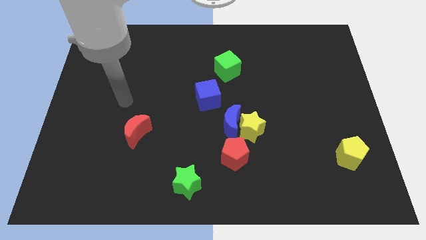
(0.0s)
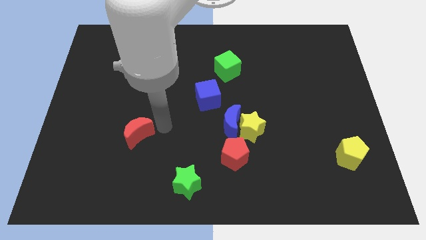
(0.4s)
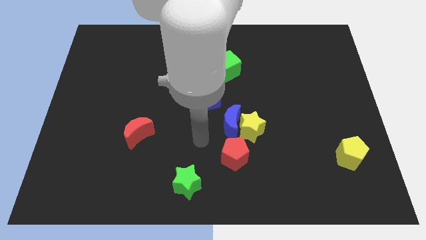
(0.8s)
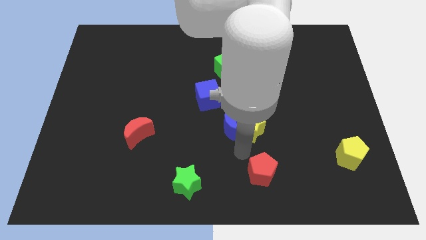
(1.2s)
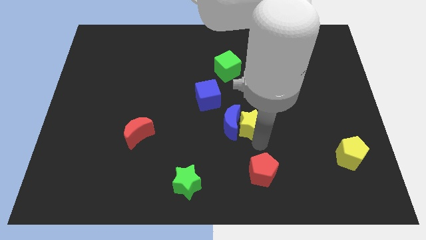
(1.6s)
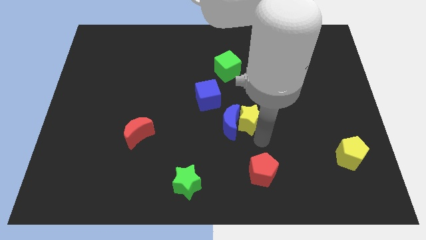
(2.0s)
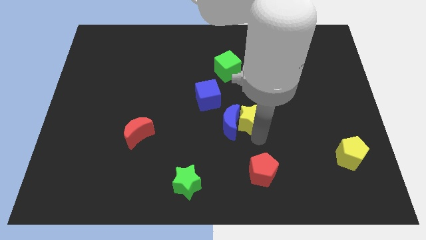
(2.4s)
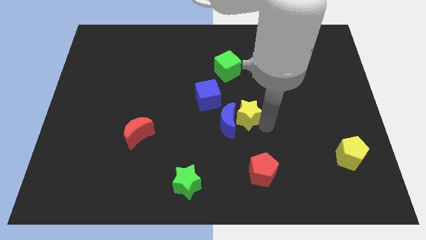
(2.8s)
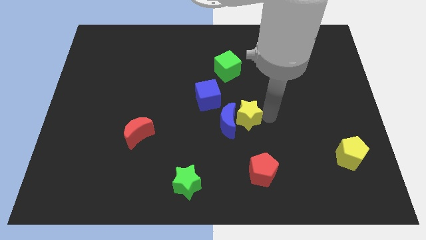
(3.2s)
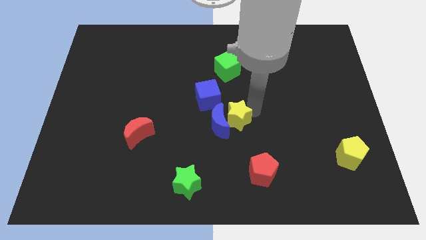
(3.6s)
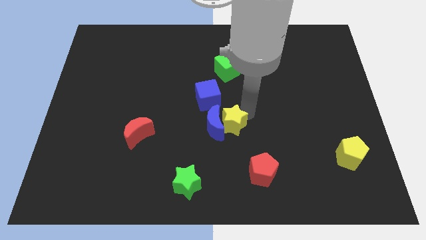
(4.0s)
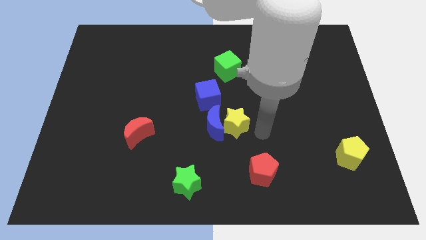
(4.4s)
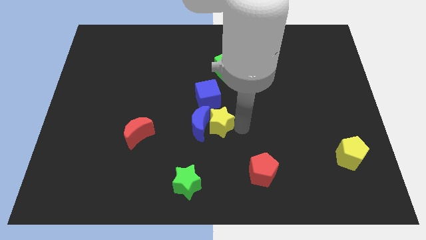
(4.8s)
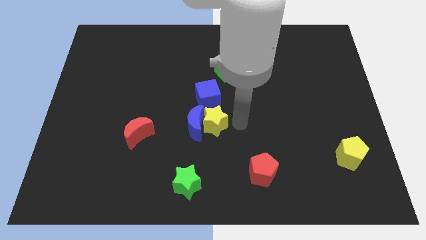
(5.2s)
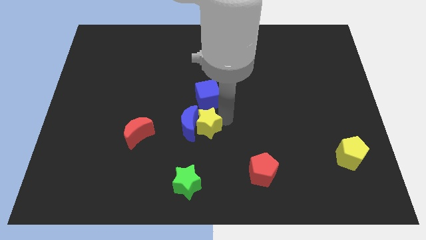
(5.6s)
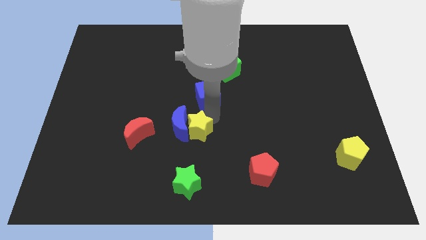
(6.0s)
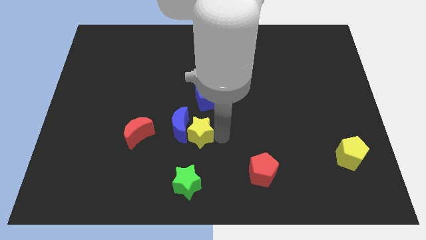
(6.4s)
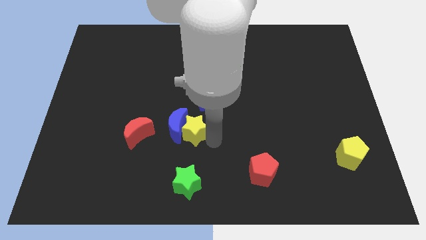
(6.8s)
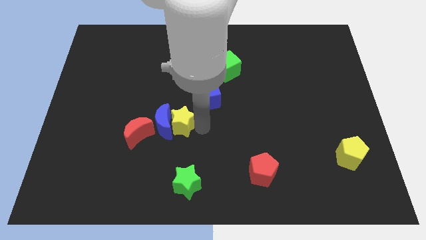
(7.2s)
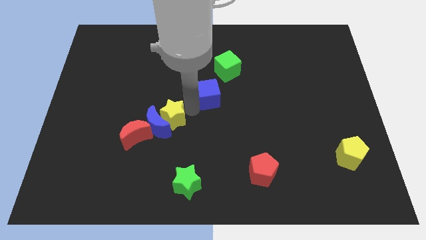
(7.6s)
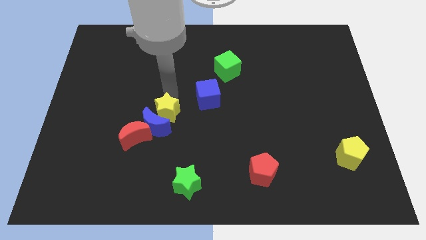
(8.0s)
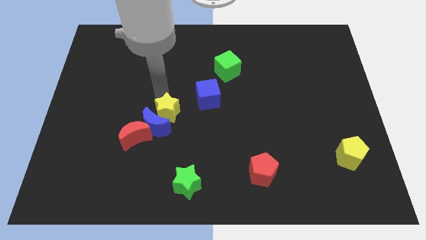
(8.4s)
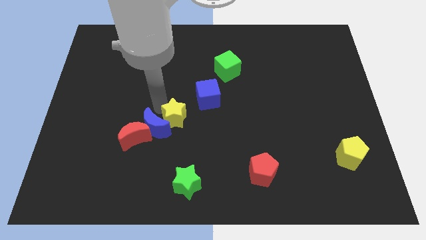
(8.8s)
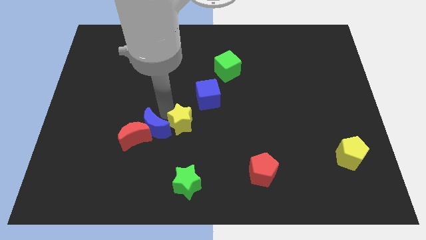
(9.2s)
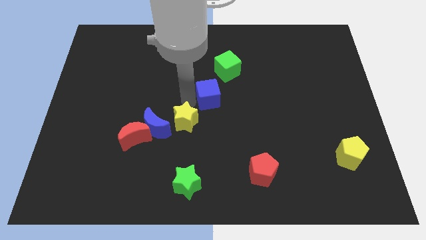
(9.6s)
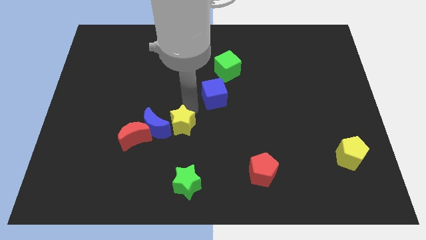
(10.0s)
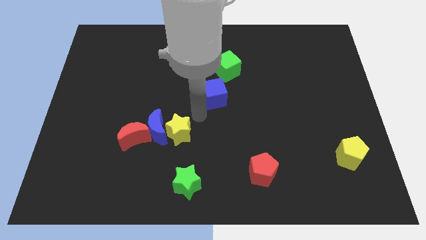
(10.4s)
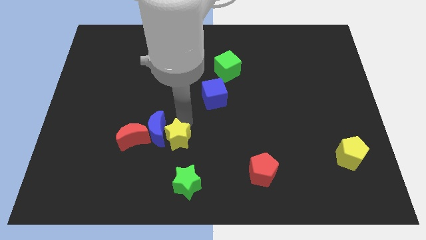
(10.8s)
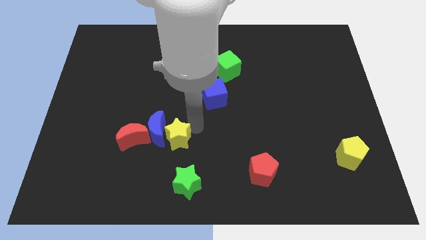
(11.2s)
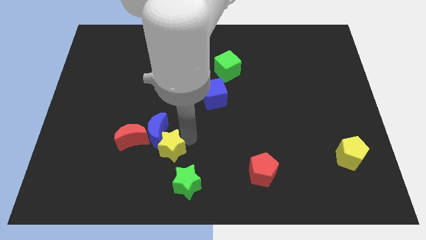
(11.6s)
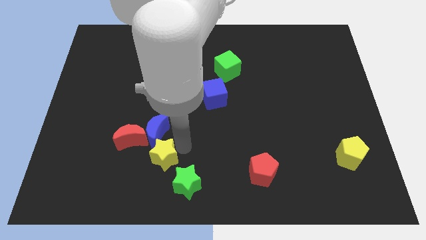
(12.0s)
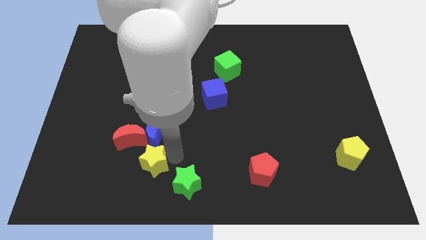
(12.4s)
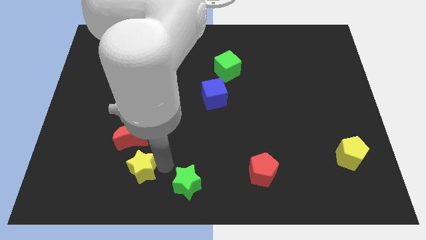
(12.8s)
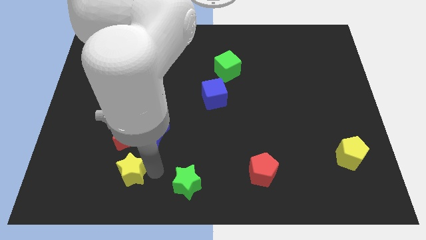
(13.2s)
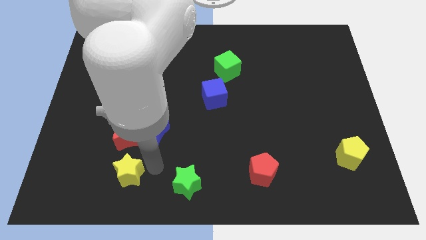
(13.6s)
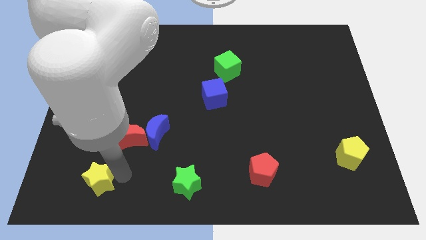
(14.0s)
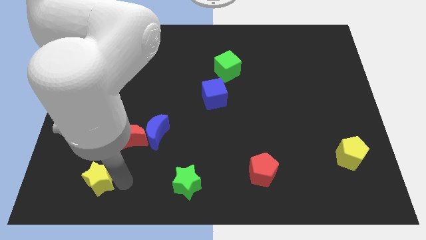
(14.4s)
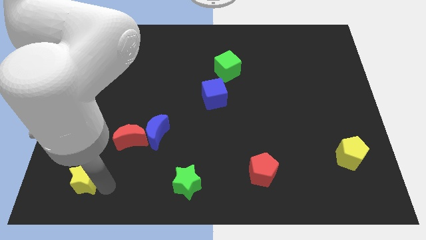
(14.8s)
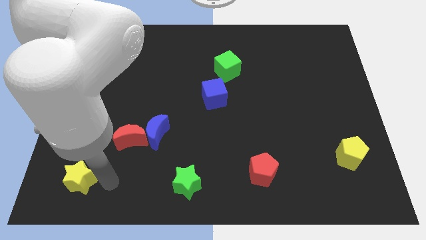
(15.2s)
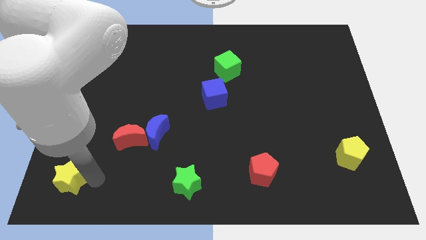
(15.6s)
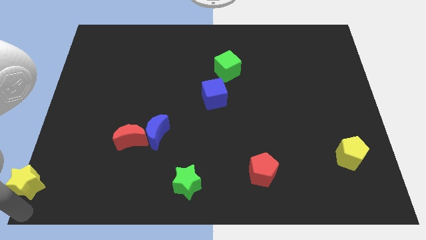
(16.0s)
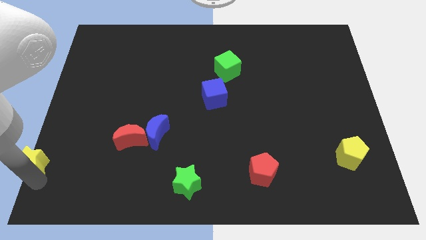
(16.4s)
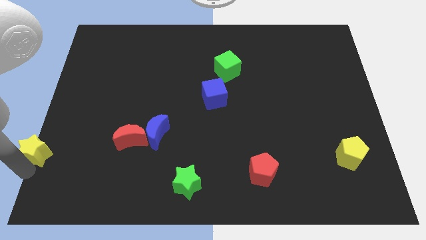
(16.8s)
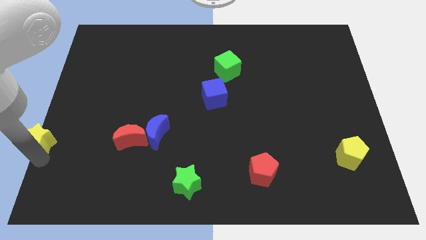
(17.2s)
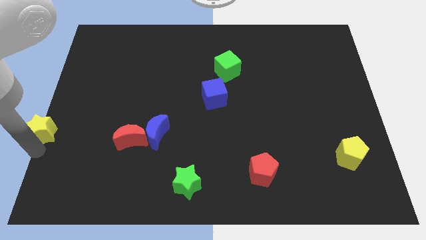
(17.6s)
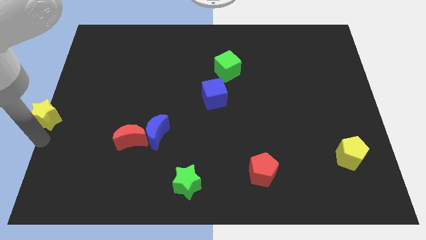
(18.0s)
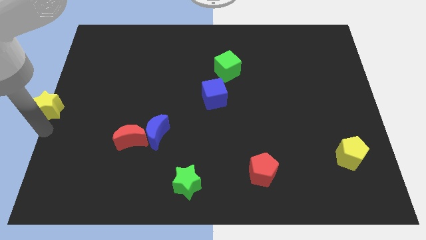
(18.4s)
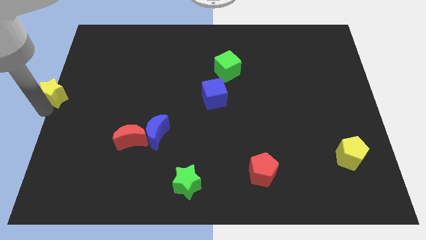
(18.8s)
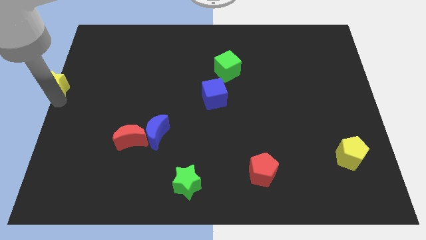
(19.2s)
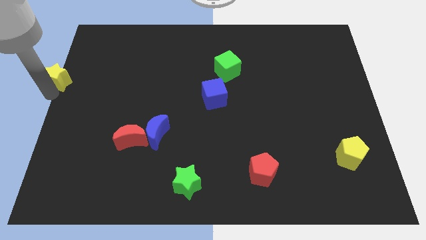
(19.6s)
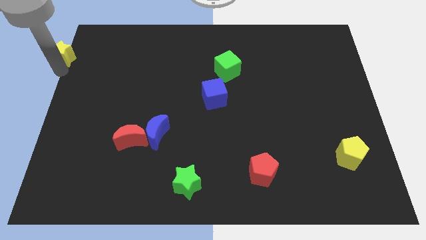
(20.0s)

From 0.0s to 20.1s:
move the yellow star to the top left

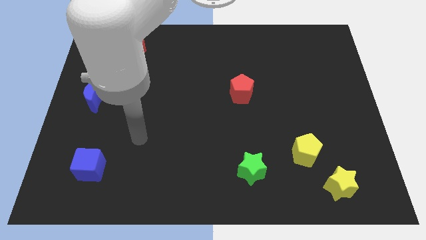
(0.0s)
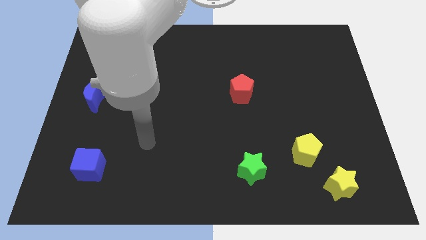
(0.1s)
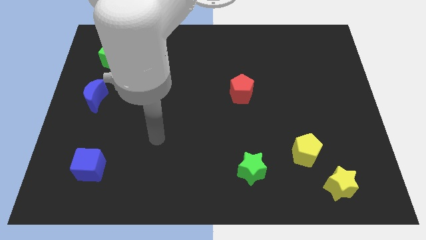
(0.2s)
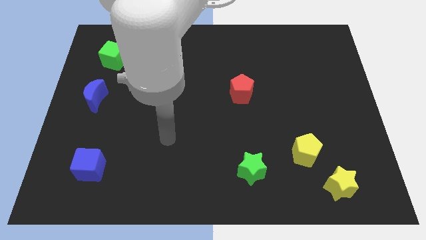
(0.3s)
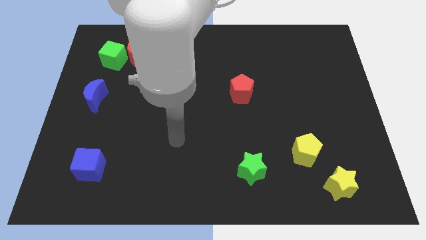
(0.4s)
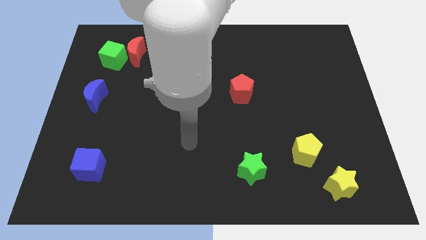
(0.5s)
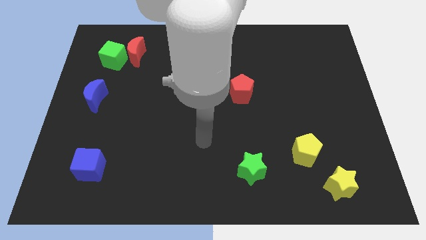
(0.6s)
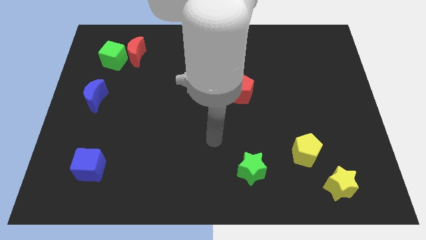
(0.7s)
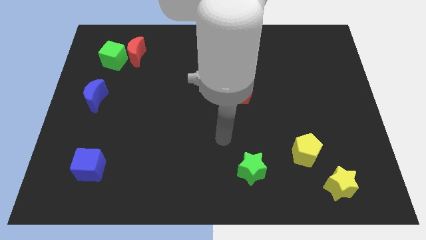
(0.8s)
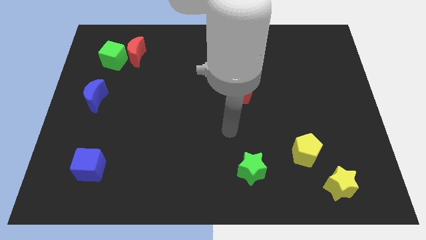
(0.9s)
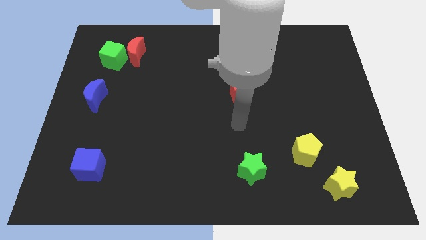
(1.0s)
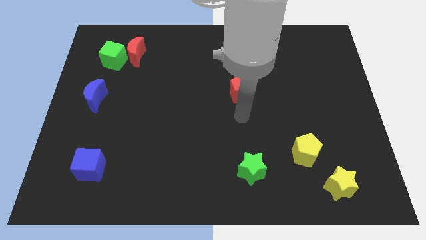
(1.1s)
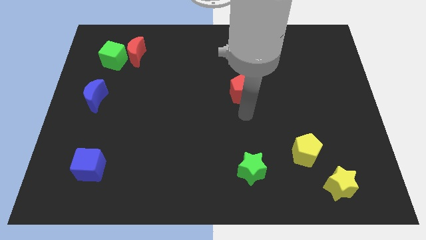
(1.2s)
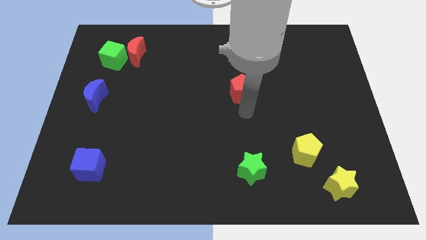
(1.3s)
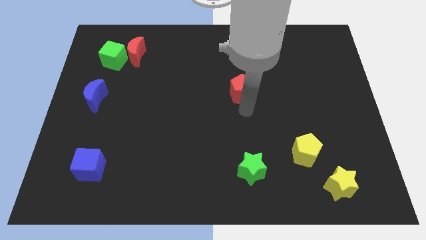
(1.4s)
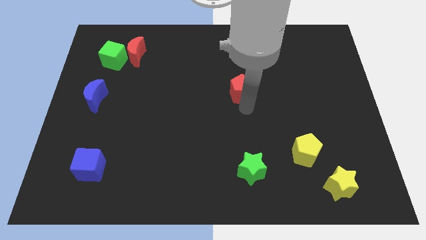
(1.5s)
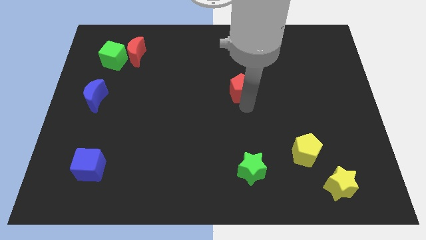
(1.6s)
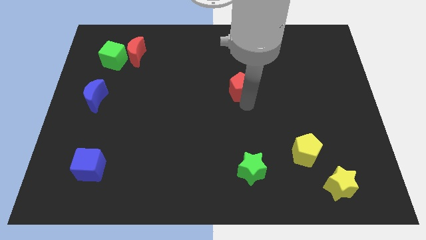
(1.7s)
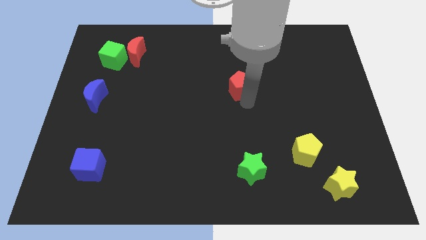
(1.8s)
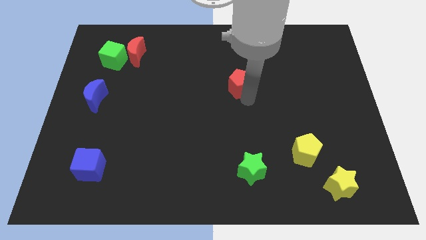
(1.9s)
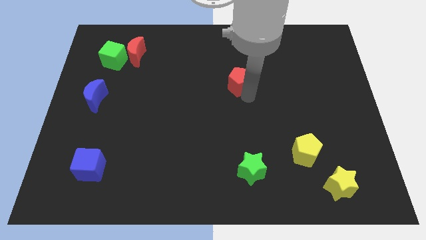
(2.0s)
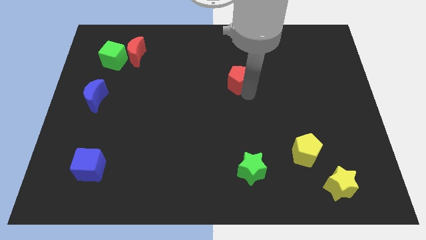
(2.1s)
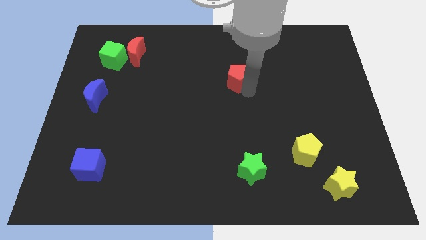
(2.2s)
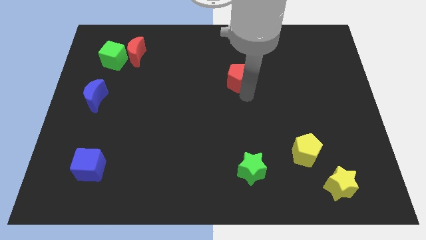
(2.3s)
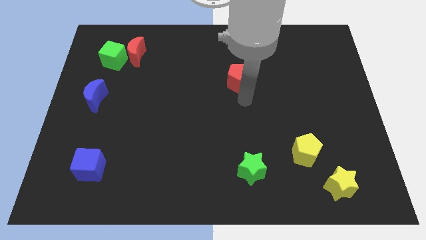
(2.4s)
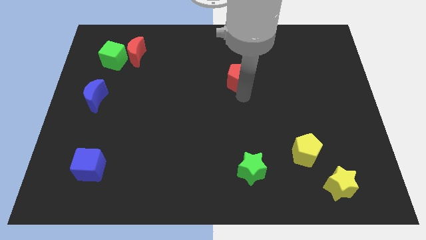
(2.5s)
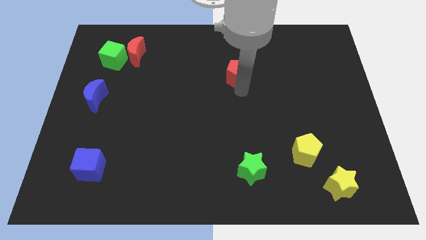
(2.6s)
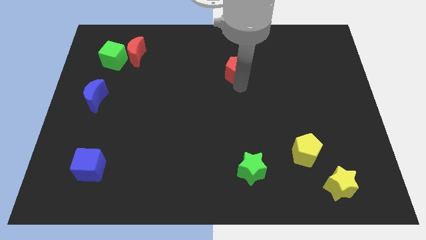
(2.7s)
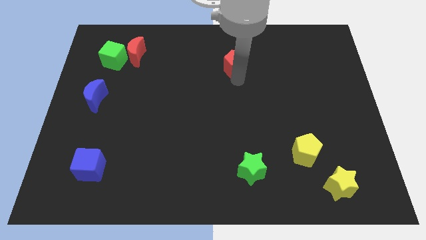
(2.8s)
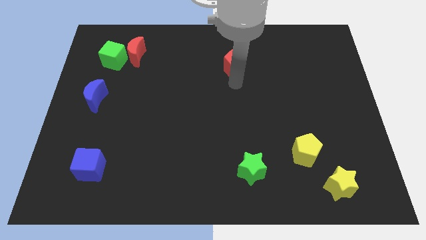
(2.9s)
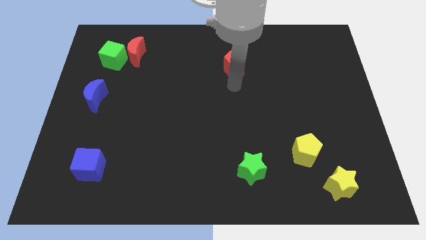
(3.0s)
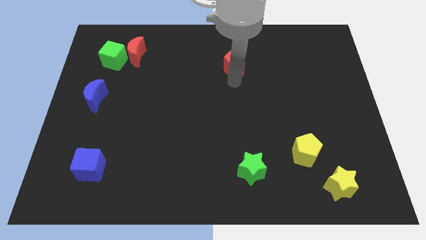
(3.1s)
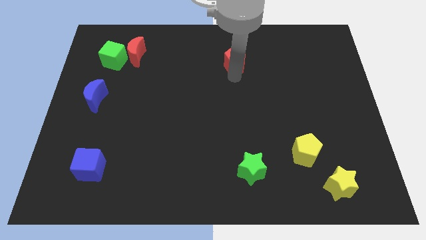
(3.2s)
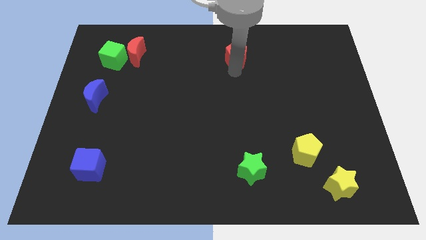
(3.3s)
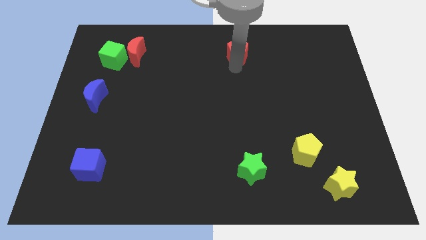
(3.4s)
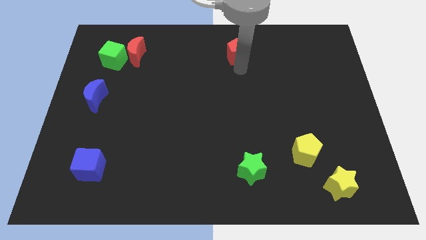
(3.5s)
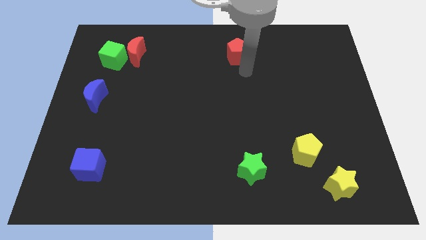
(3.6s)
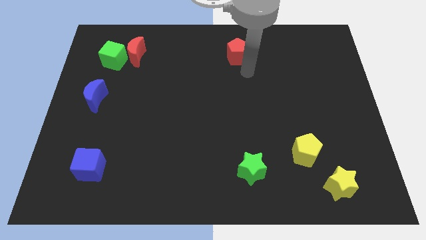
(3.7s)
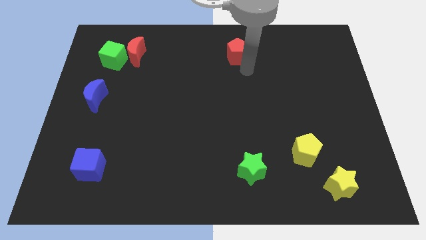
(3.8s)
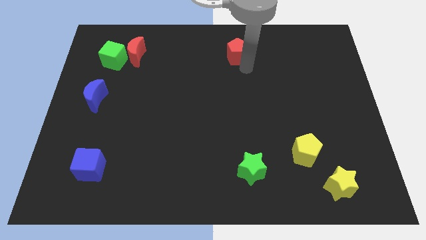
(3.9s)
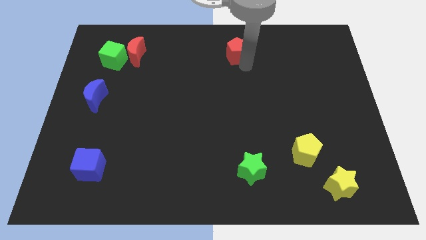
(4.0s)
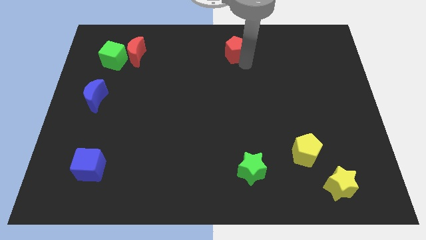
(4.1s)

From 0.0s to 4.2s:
move the red pentagon to the top side
